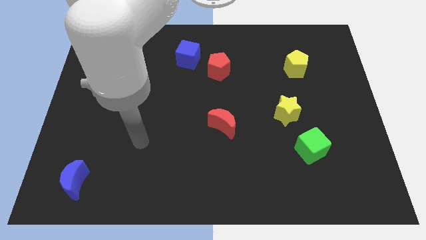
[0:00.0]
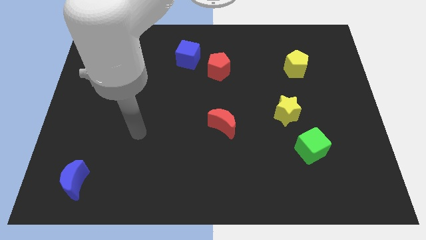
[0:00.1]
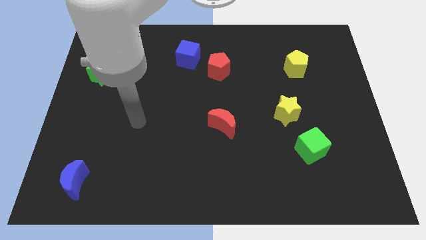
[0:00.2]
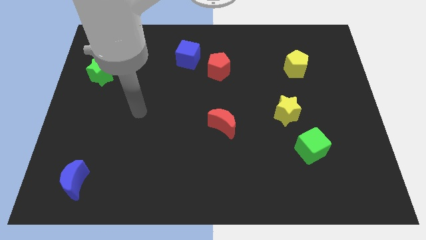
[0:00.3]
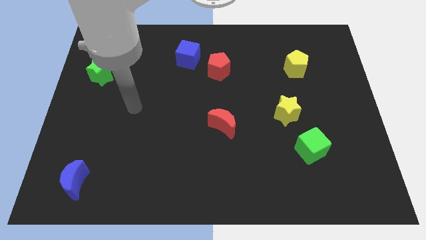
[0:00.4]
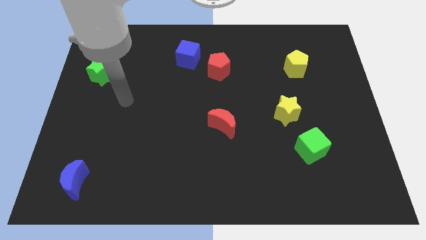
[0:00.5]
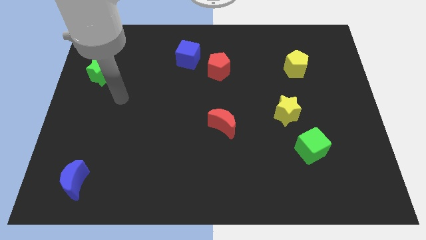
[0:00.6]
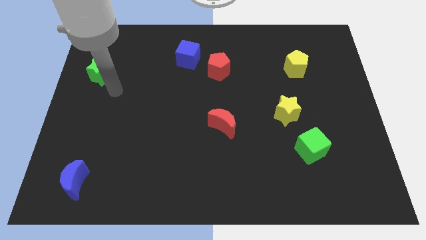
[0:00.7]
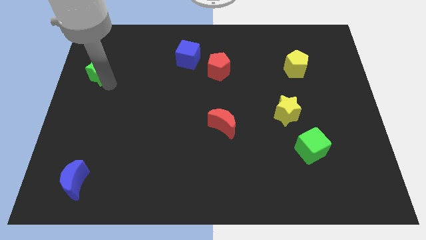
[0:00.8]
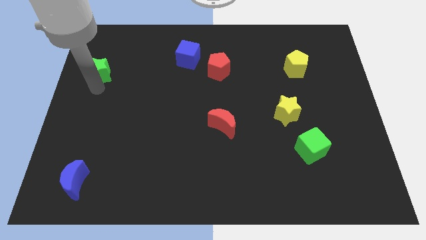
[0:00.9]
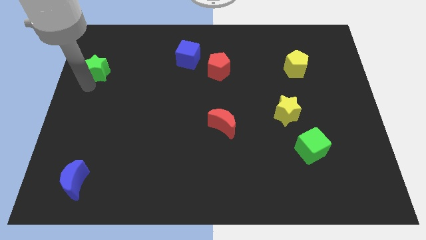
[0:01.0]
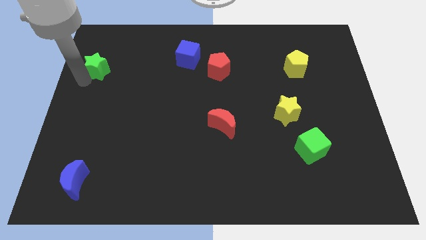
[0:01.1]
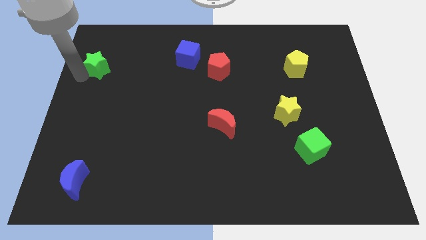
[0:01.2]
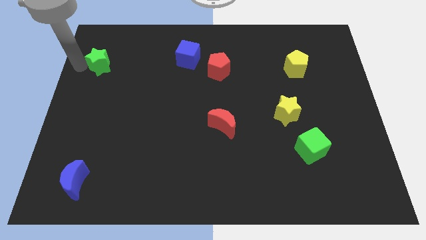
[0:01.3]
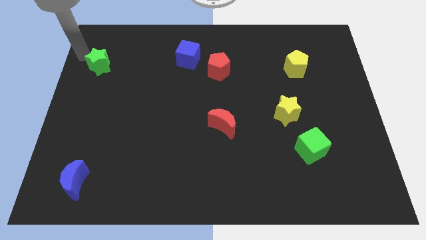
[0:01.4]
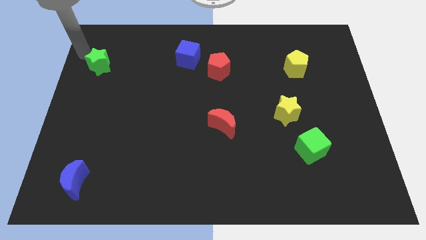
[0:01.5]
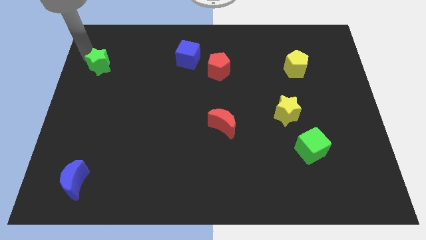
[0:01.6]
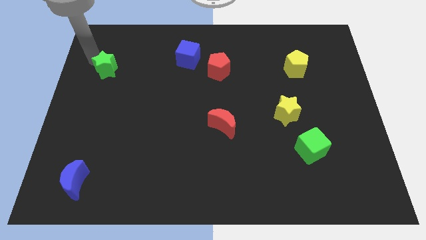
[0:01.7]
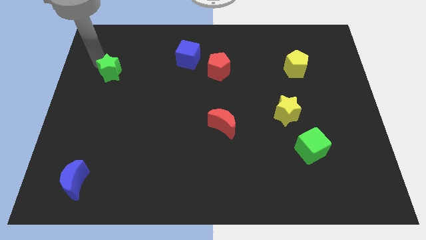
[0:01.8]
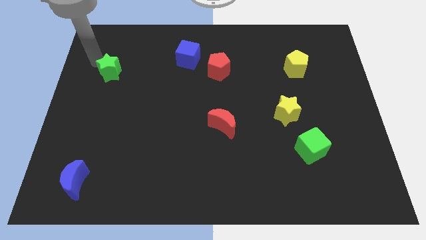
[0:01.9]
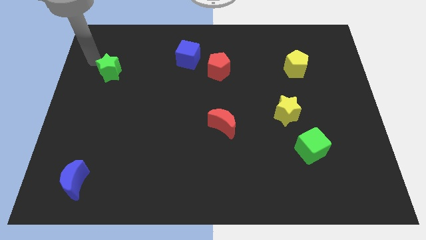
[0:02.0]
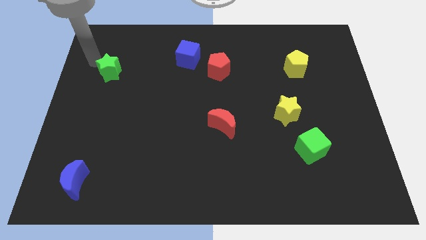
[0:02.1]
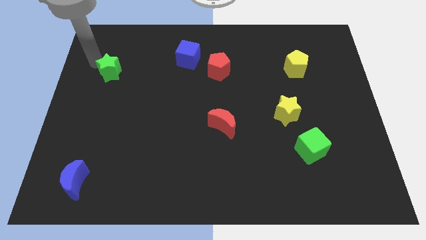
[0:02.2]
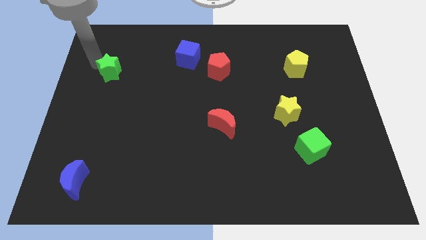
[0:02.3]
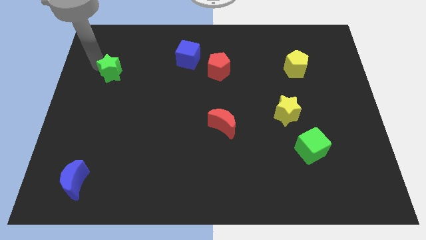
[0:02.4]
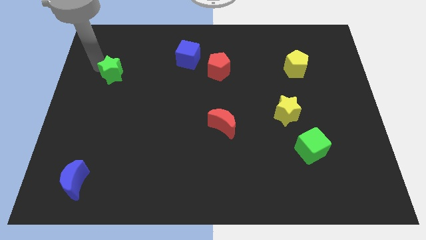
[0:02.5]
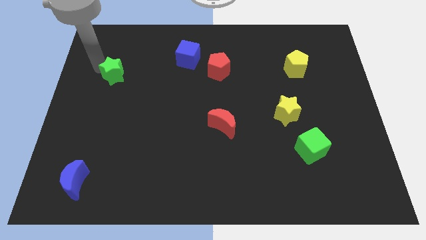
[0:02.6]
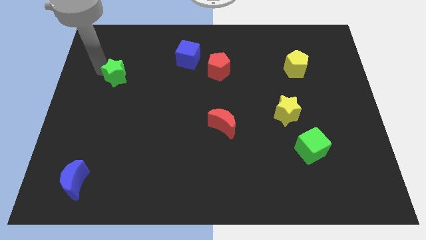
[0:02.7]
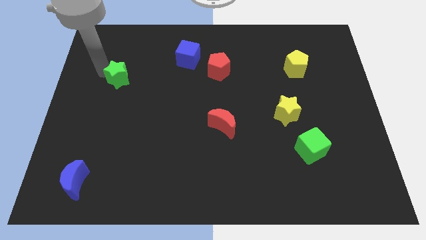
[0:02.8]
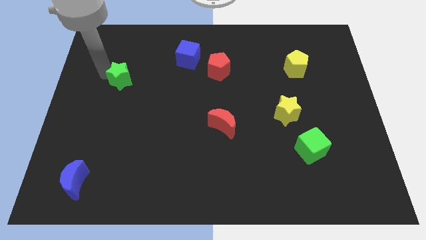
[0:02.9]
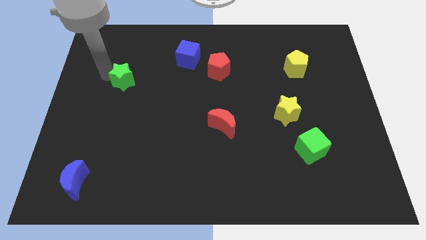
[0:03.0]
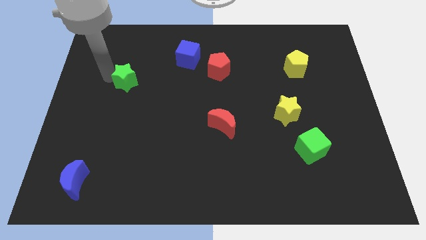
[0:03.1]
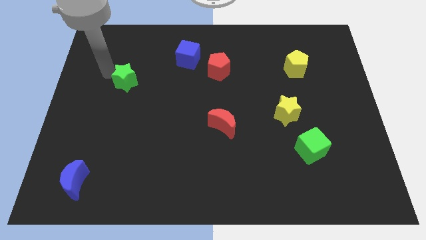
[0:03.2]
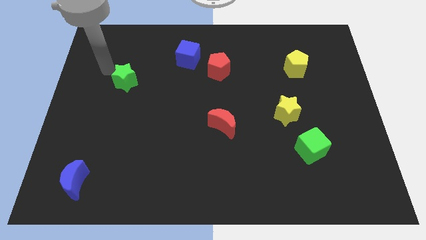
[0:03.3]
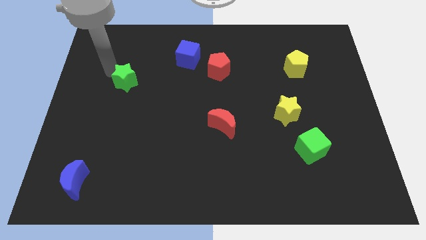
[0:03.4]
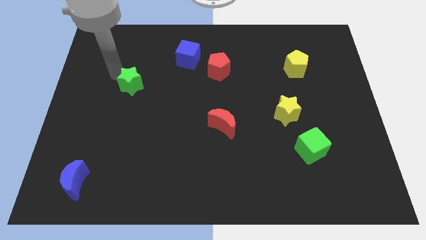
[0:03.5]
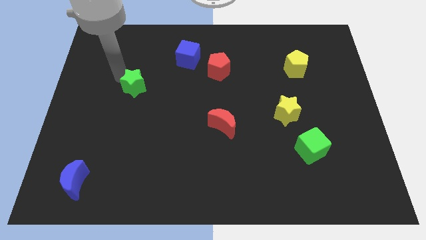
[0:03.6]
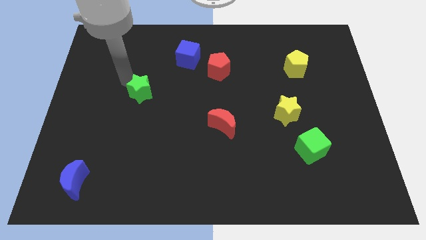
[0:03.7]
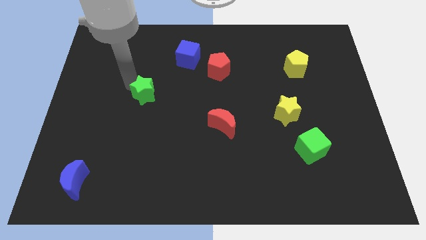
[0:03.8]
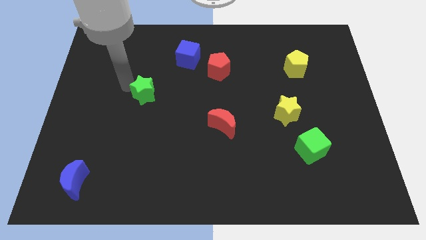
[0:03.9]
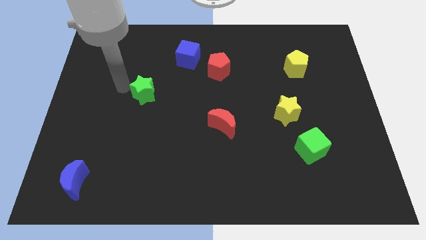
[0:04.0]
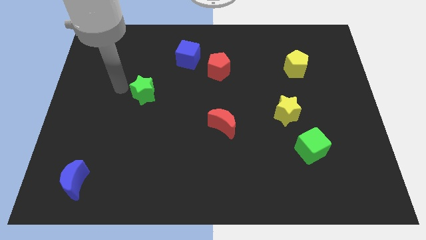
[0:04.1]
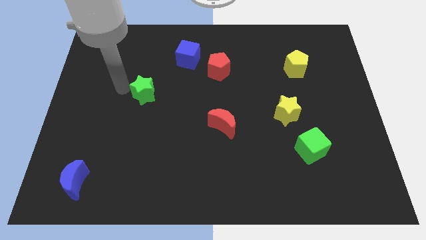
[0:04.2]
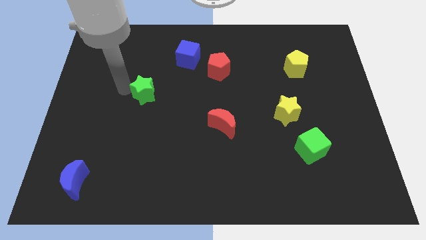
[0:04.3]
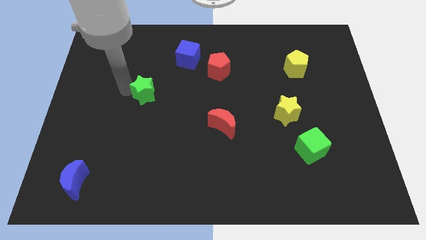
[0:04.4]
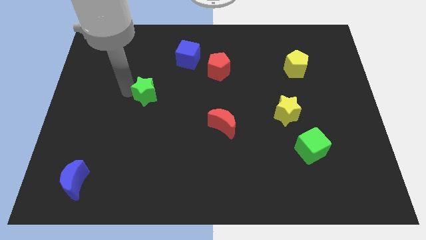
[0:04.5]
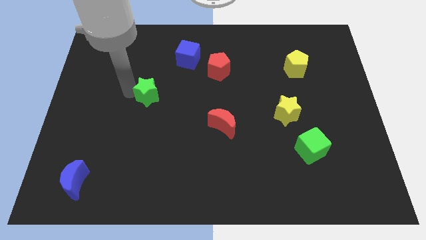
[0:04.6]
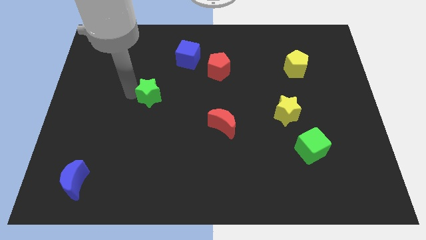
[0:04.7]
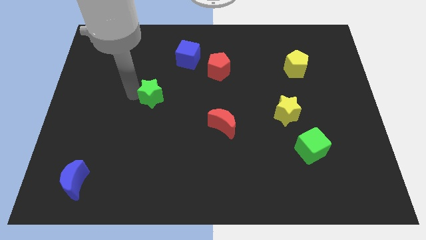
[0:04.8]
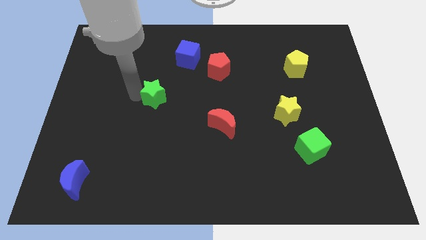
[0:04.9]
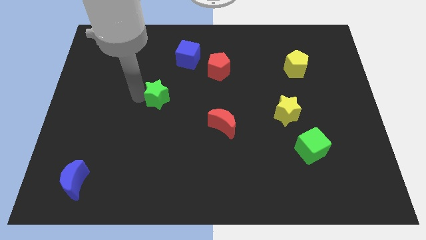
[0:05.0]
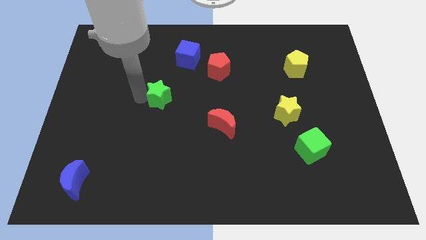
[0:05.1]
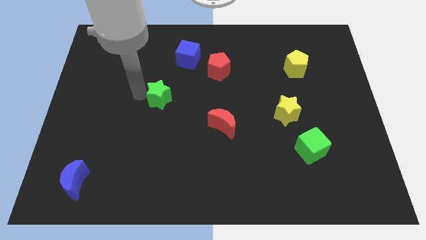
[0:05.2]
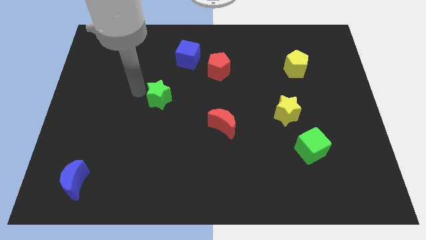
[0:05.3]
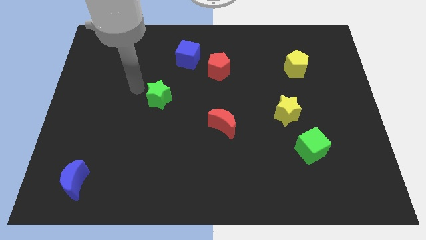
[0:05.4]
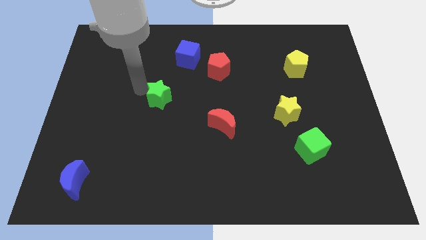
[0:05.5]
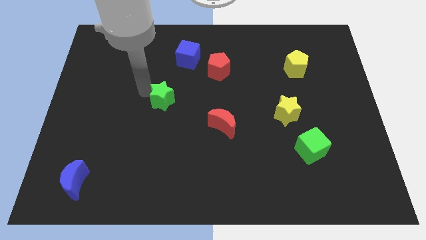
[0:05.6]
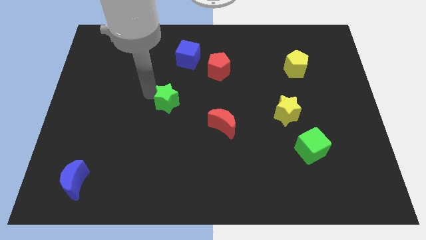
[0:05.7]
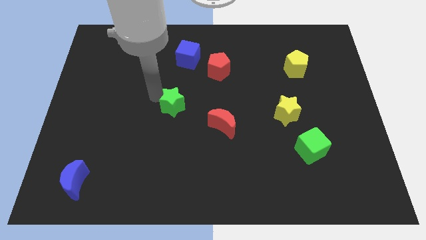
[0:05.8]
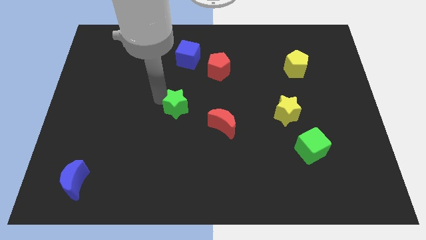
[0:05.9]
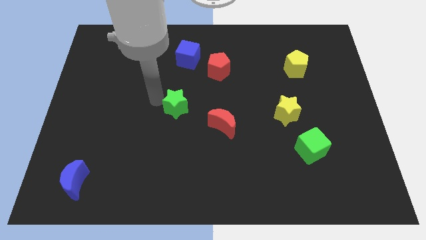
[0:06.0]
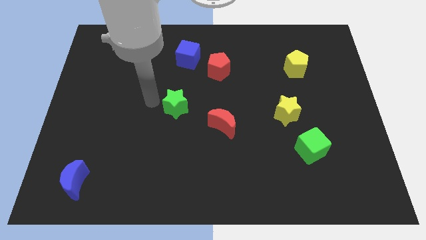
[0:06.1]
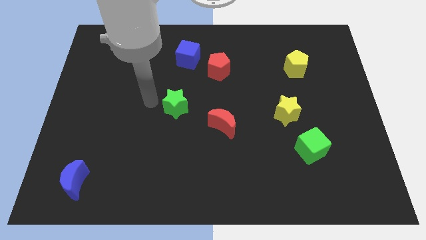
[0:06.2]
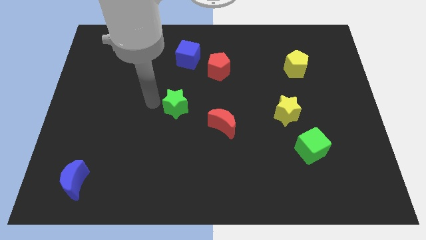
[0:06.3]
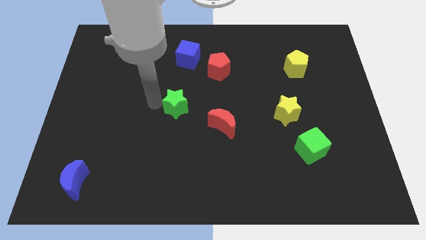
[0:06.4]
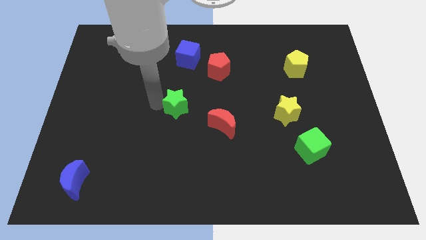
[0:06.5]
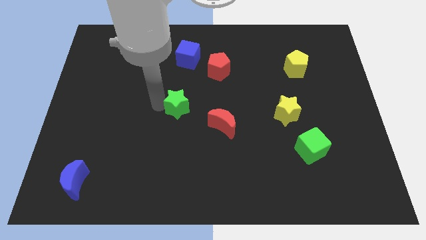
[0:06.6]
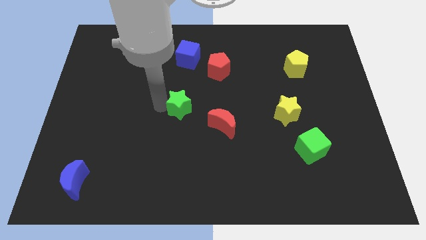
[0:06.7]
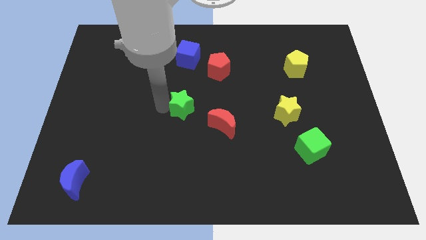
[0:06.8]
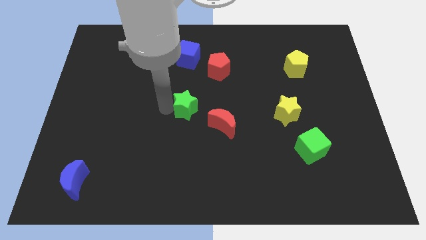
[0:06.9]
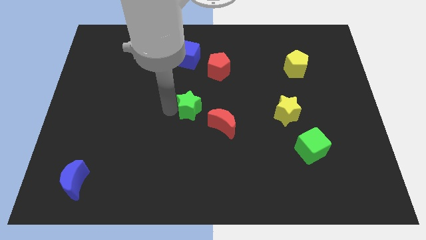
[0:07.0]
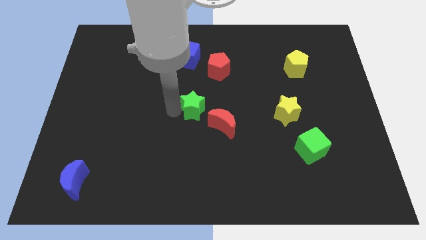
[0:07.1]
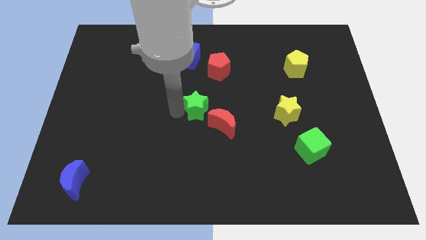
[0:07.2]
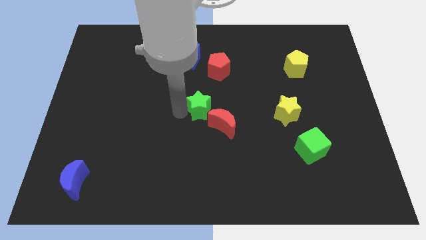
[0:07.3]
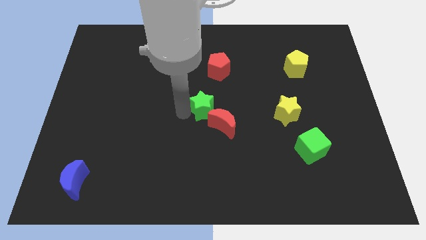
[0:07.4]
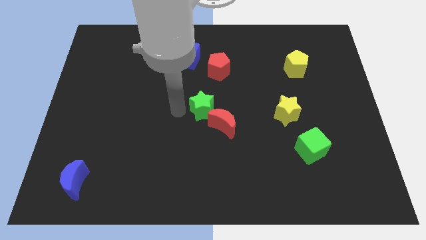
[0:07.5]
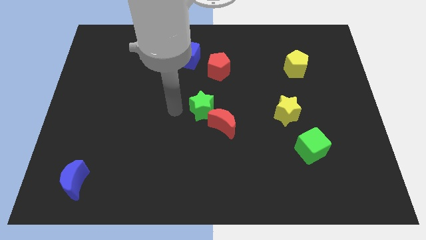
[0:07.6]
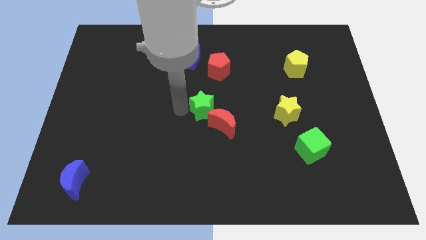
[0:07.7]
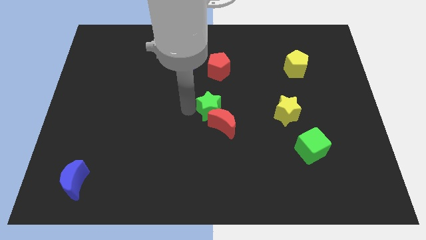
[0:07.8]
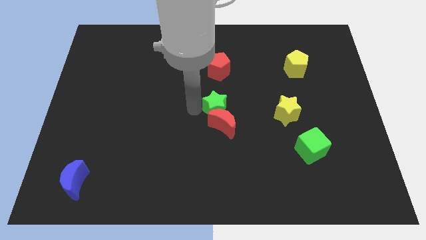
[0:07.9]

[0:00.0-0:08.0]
push the green star left of the yellow star
